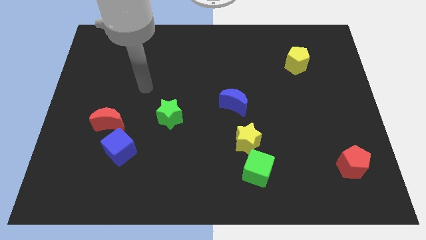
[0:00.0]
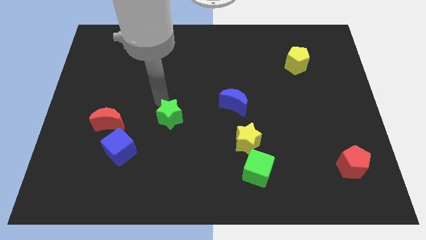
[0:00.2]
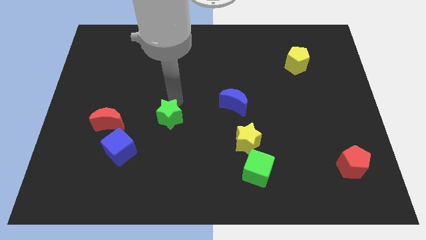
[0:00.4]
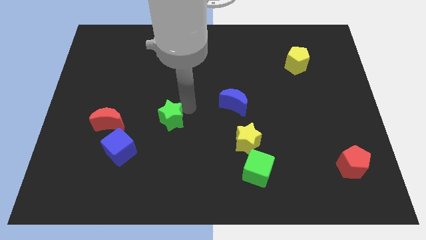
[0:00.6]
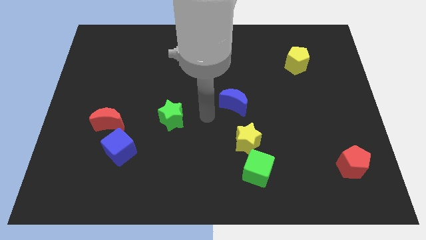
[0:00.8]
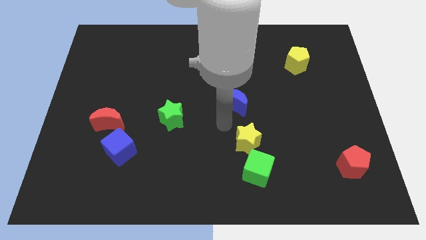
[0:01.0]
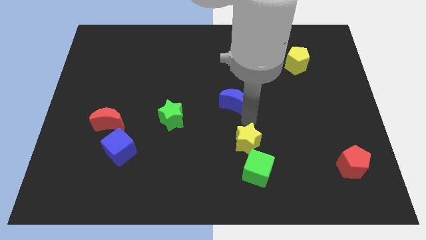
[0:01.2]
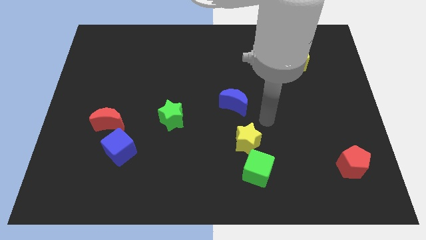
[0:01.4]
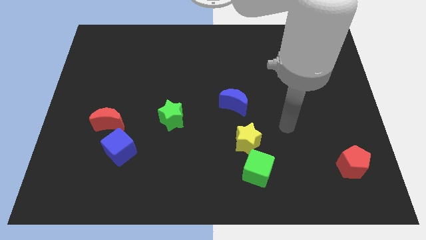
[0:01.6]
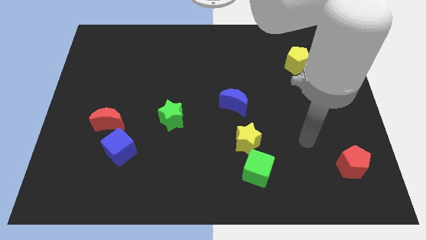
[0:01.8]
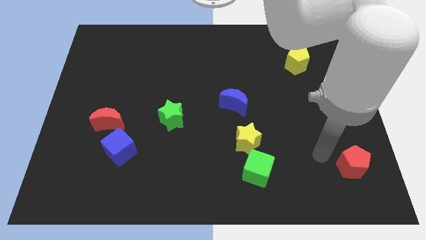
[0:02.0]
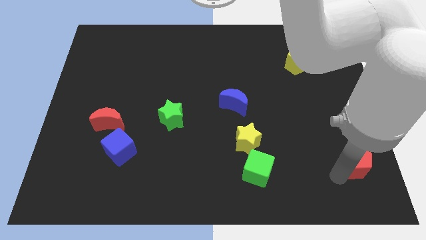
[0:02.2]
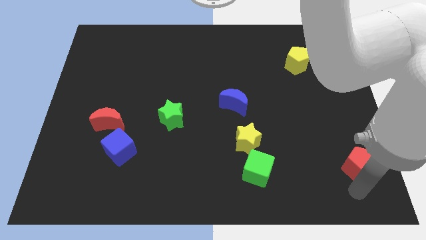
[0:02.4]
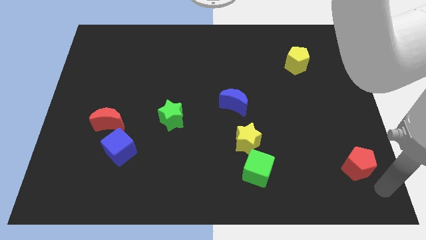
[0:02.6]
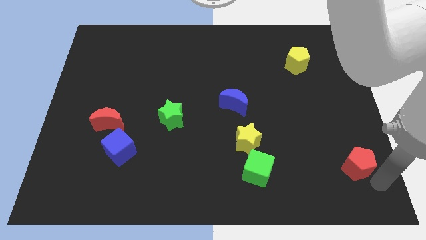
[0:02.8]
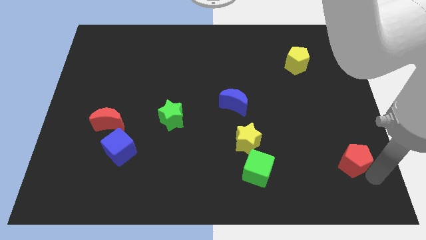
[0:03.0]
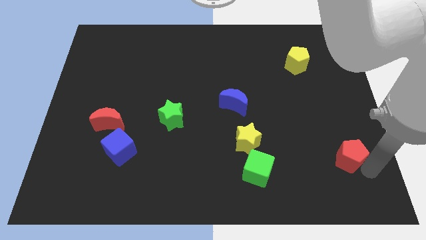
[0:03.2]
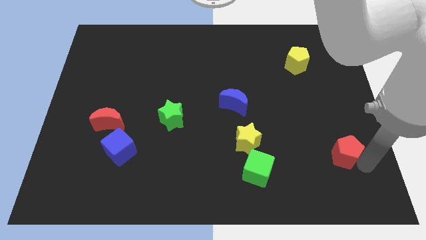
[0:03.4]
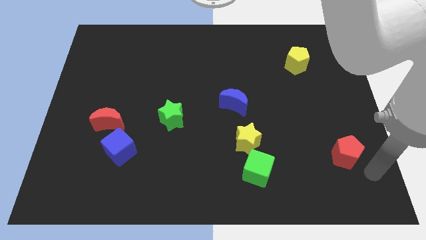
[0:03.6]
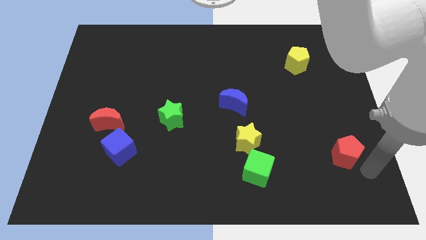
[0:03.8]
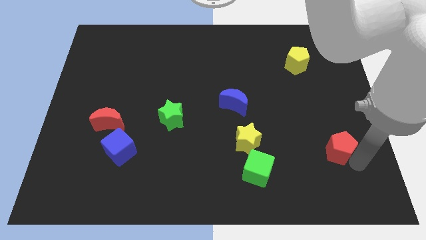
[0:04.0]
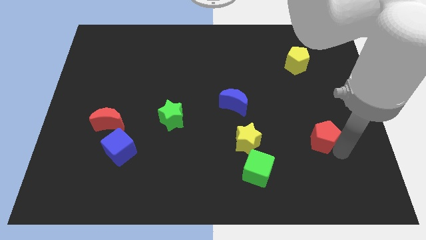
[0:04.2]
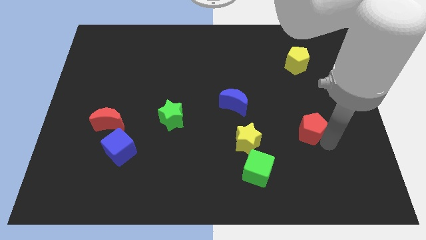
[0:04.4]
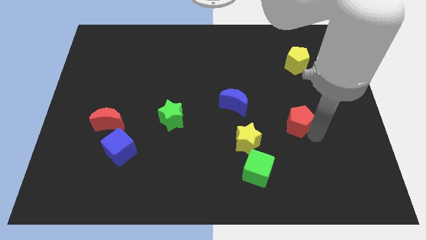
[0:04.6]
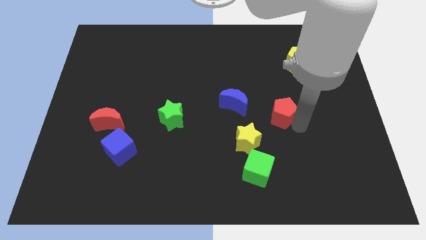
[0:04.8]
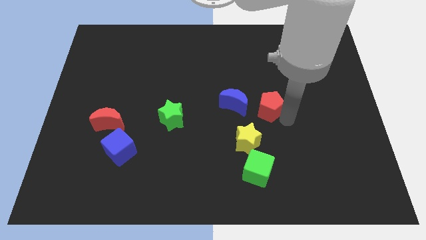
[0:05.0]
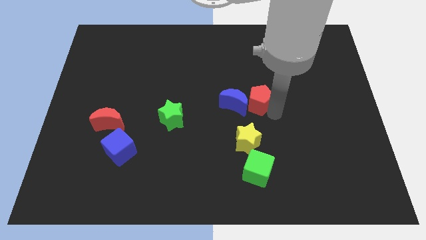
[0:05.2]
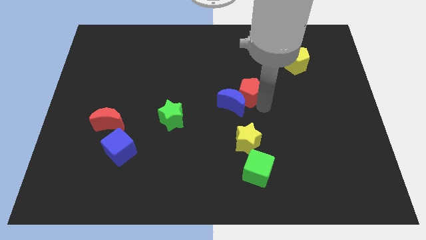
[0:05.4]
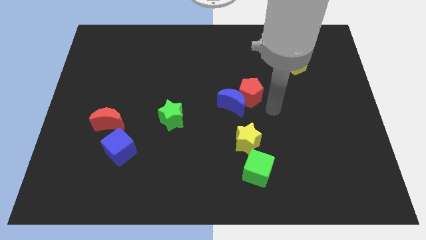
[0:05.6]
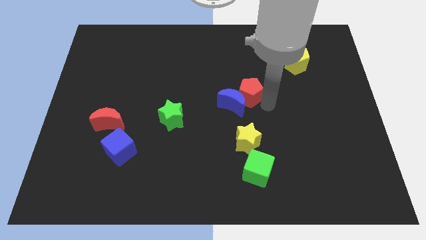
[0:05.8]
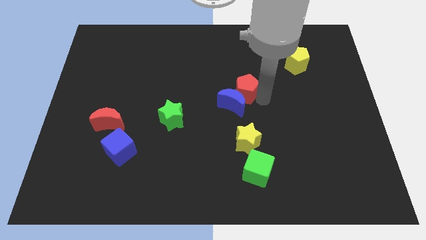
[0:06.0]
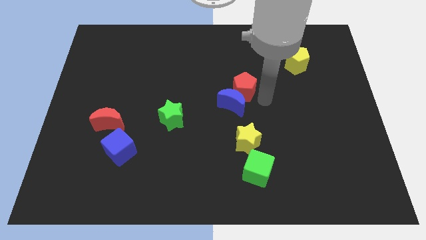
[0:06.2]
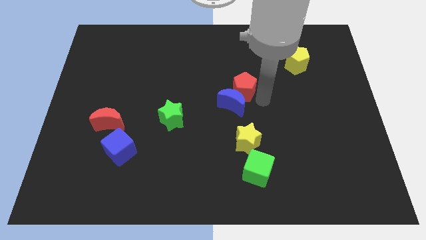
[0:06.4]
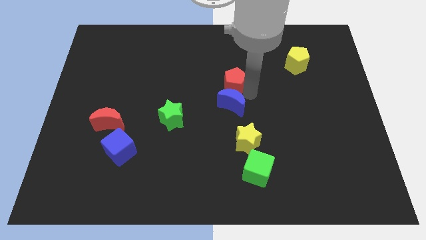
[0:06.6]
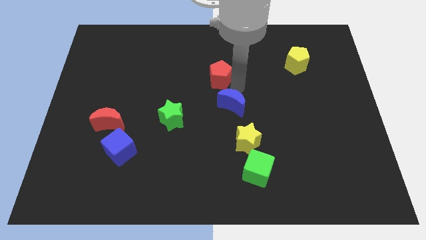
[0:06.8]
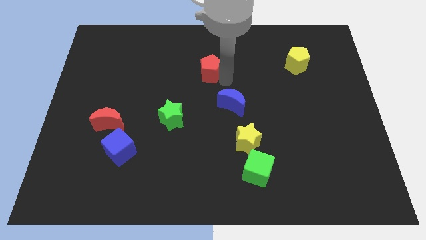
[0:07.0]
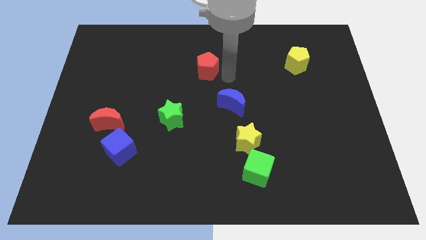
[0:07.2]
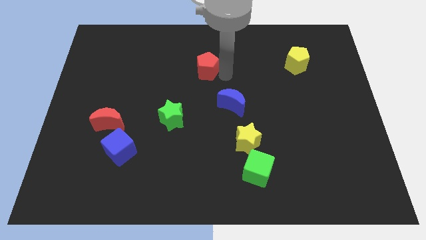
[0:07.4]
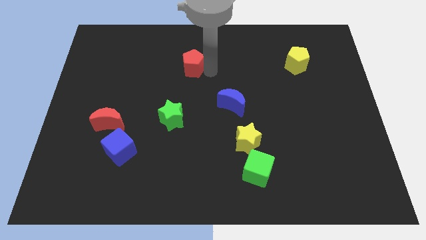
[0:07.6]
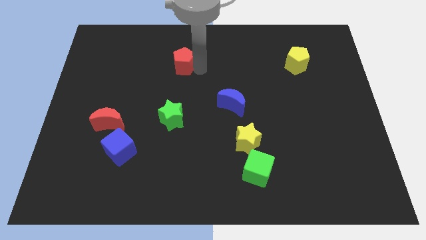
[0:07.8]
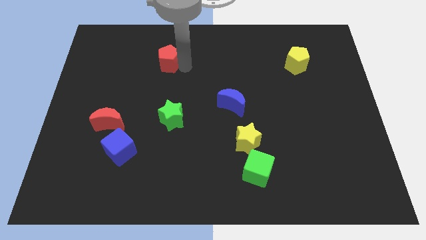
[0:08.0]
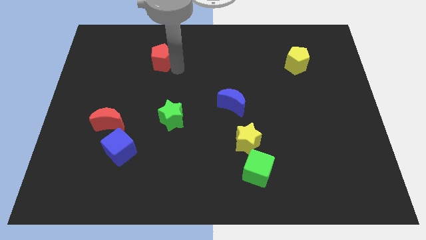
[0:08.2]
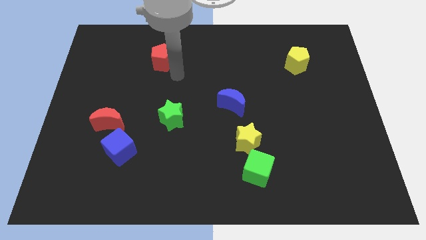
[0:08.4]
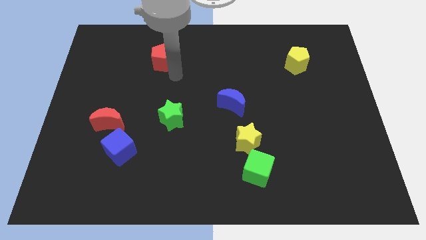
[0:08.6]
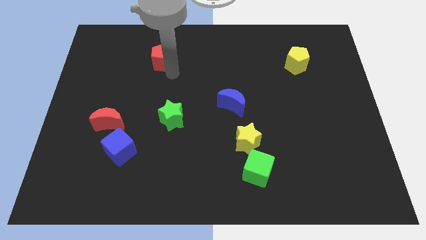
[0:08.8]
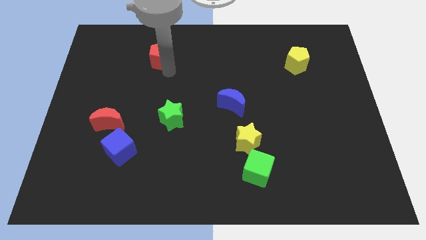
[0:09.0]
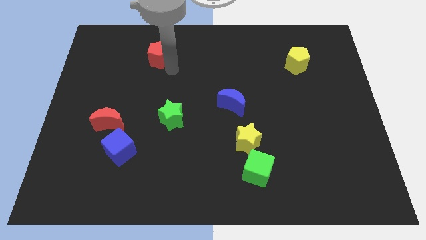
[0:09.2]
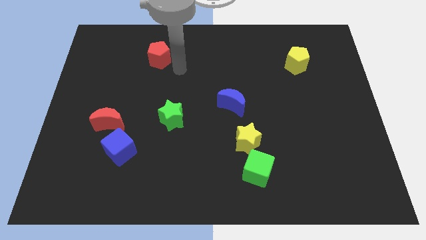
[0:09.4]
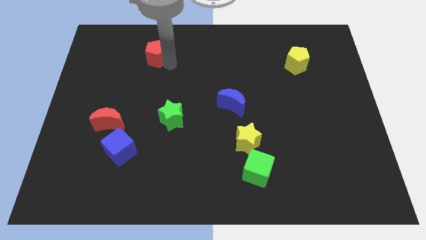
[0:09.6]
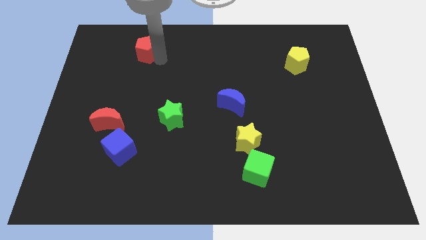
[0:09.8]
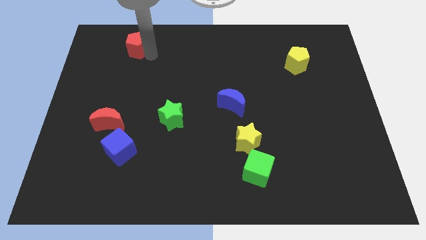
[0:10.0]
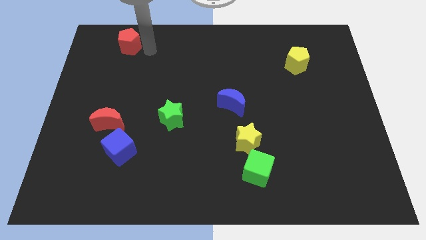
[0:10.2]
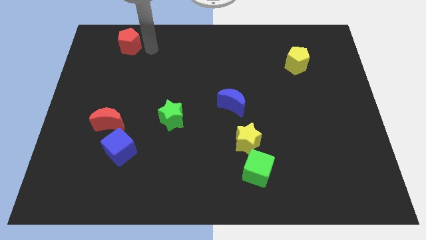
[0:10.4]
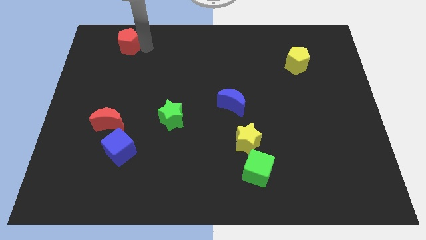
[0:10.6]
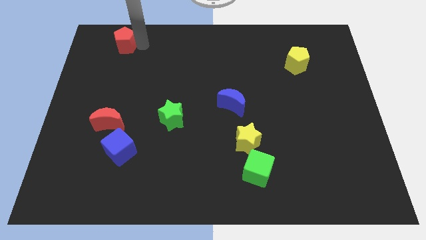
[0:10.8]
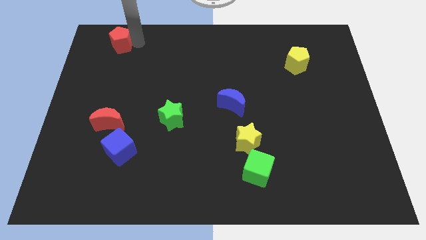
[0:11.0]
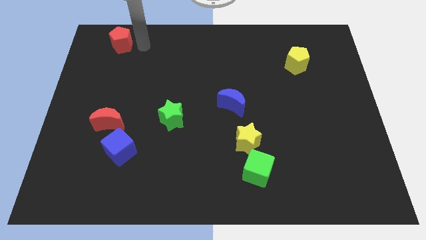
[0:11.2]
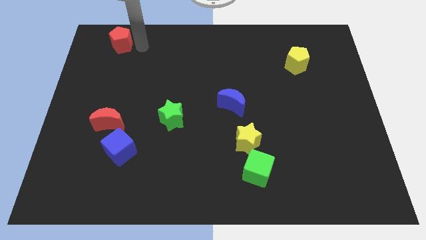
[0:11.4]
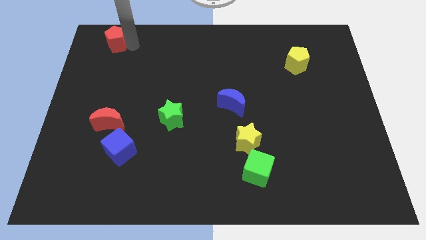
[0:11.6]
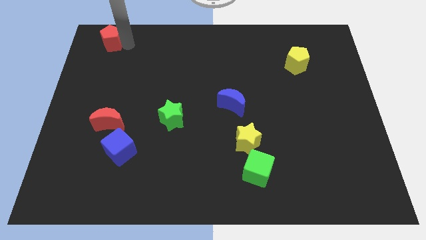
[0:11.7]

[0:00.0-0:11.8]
move the red pentagon to the upper left corner

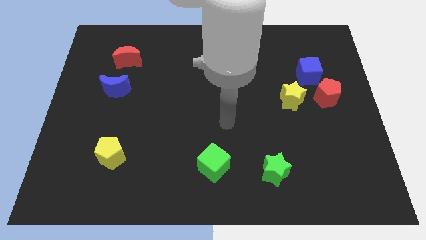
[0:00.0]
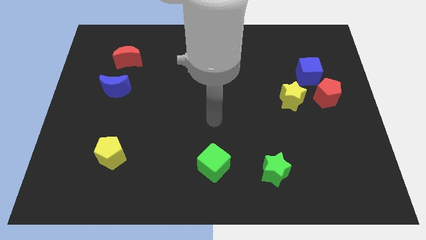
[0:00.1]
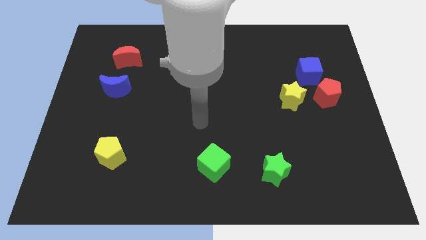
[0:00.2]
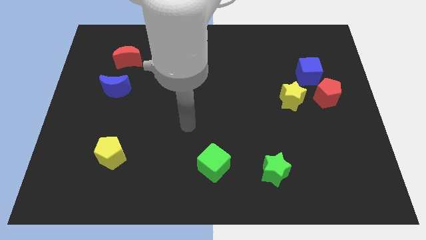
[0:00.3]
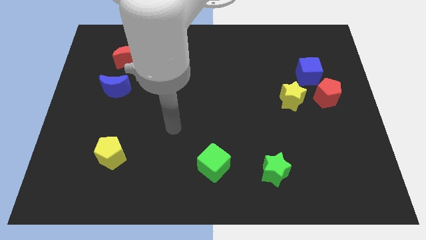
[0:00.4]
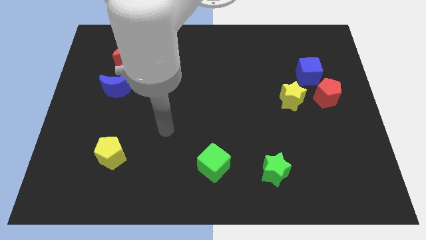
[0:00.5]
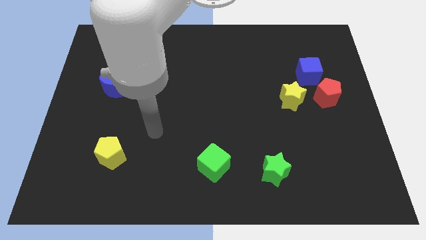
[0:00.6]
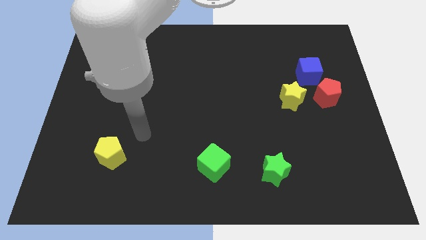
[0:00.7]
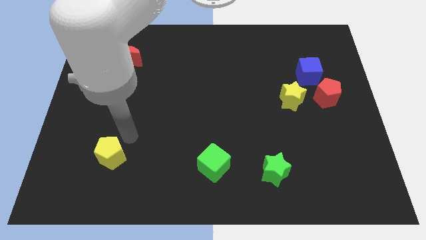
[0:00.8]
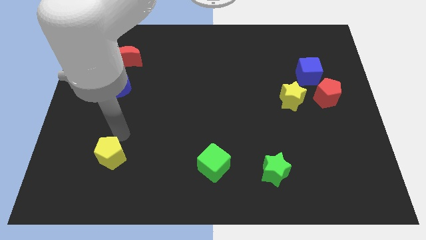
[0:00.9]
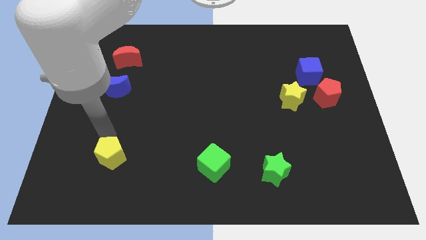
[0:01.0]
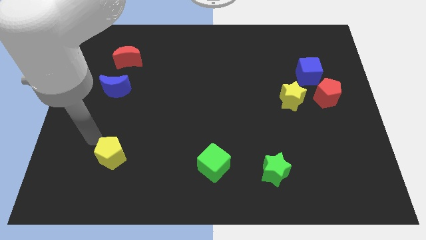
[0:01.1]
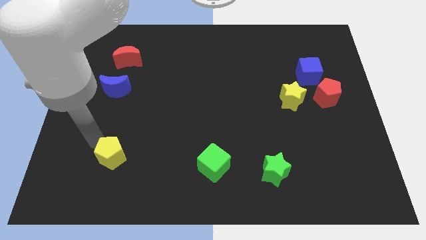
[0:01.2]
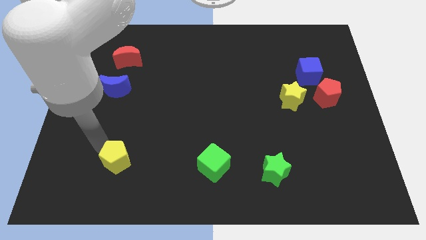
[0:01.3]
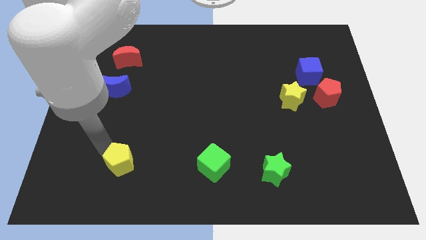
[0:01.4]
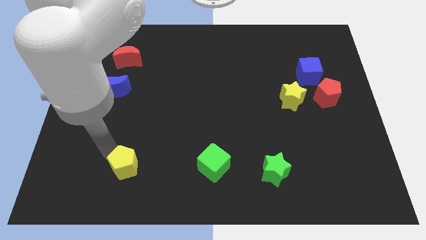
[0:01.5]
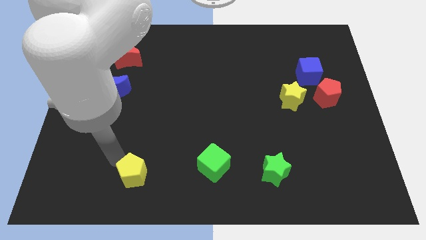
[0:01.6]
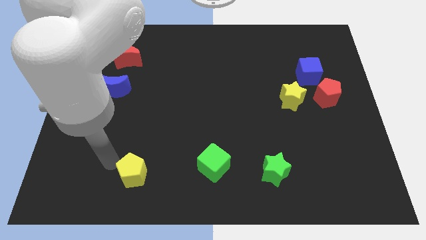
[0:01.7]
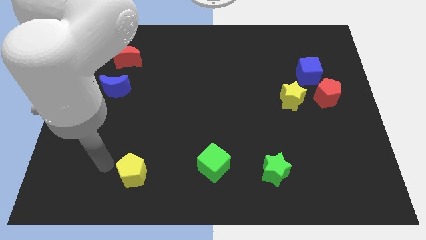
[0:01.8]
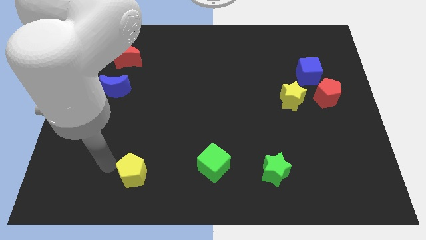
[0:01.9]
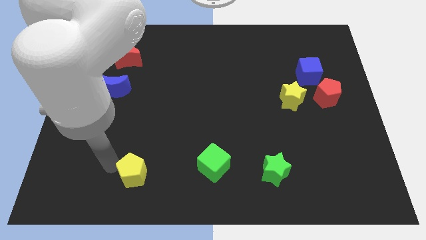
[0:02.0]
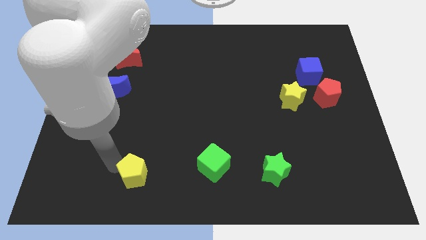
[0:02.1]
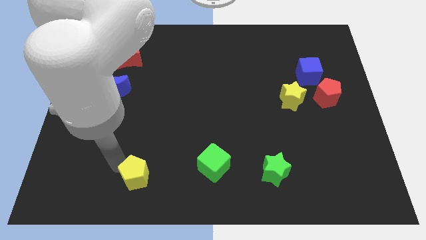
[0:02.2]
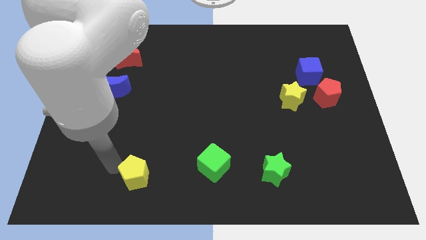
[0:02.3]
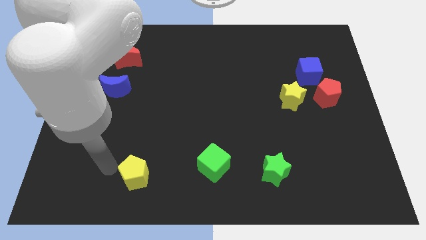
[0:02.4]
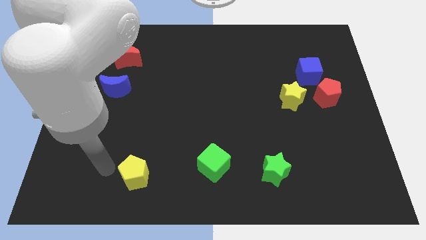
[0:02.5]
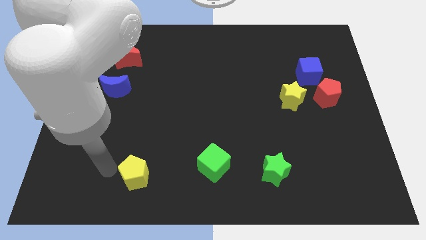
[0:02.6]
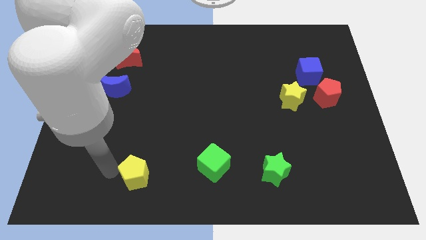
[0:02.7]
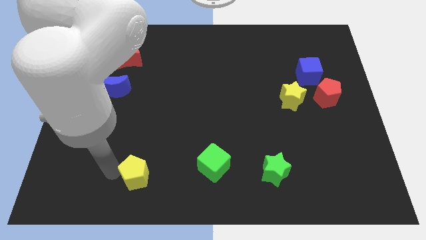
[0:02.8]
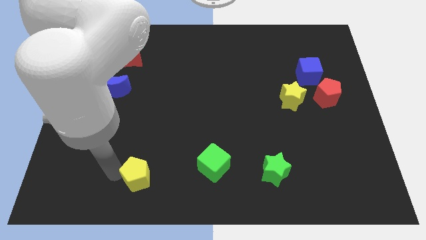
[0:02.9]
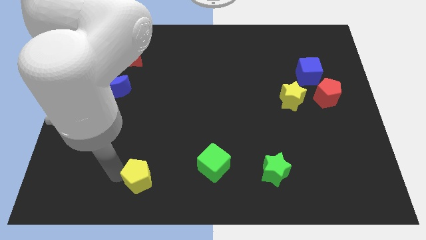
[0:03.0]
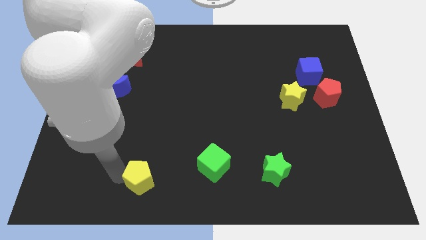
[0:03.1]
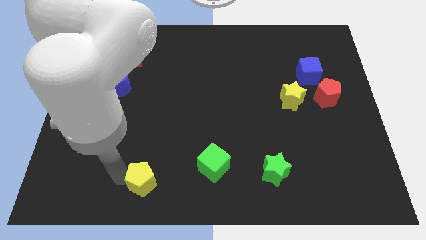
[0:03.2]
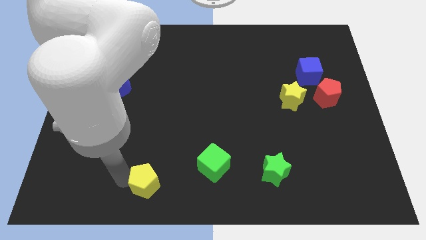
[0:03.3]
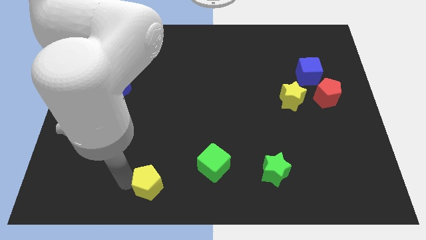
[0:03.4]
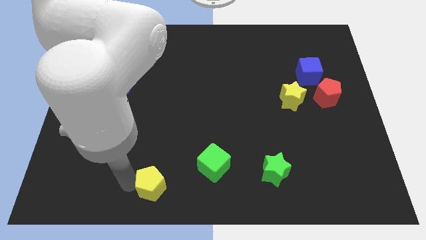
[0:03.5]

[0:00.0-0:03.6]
push the yellow pentagon to the bottom side
